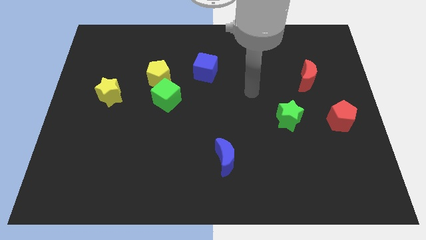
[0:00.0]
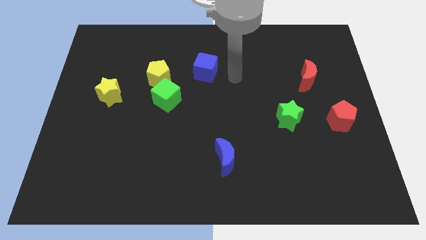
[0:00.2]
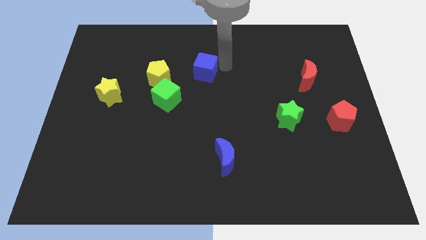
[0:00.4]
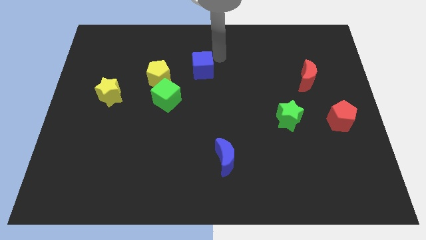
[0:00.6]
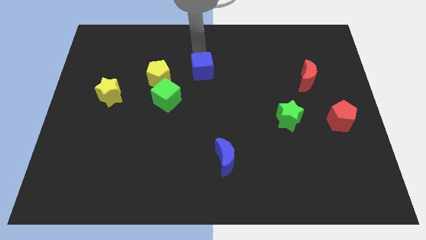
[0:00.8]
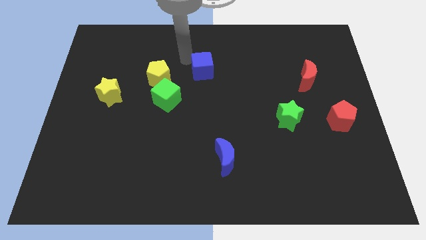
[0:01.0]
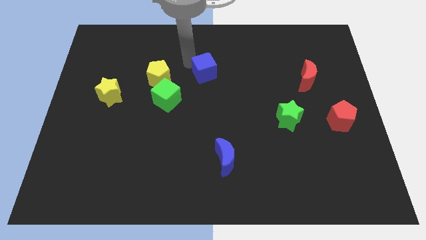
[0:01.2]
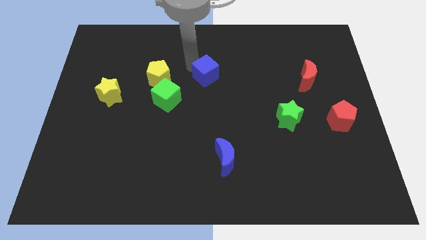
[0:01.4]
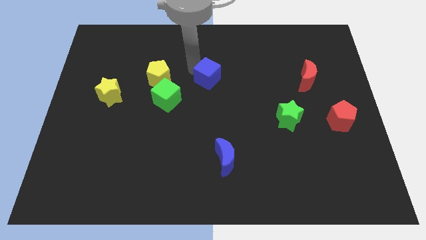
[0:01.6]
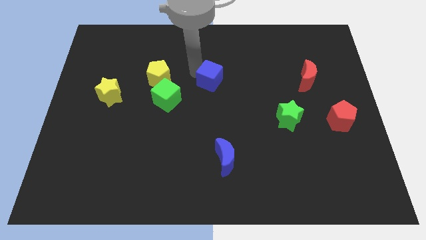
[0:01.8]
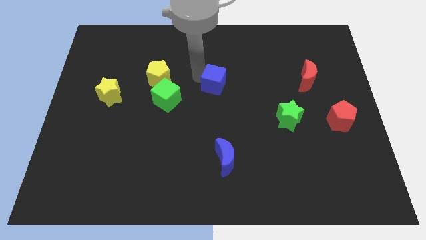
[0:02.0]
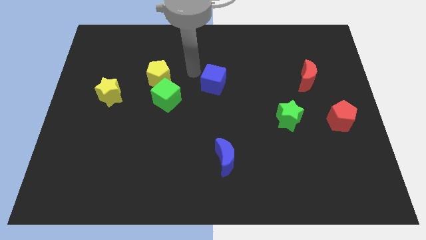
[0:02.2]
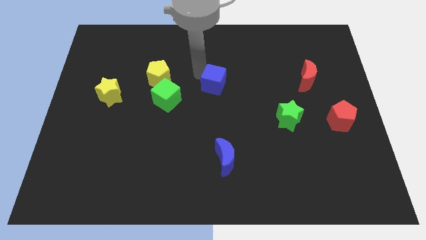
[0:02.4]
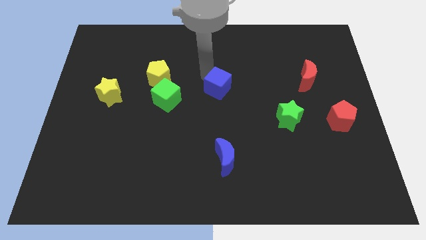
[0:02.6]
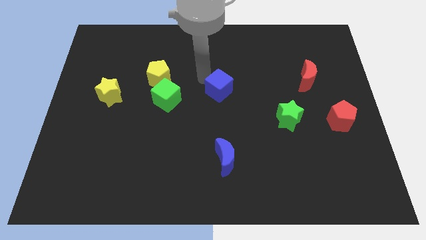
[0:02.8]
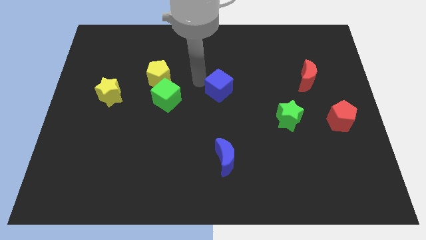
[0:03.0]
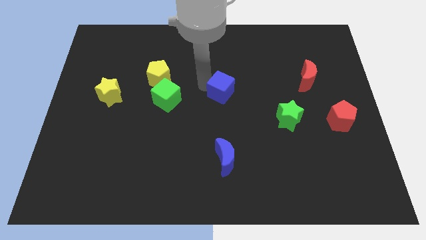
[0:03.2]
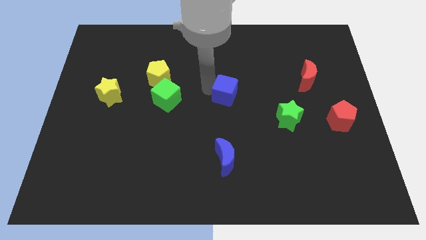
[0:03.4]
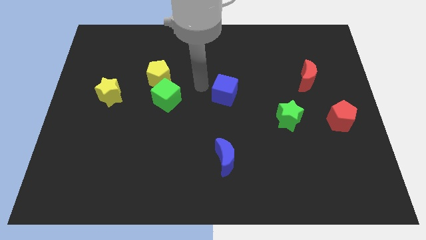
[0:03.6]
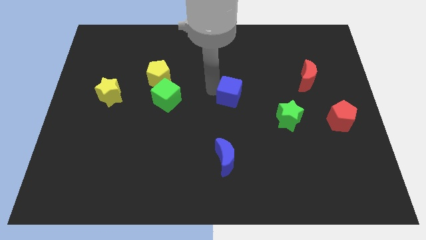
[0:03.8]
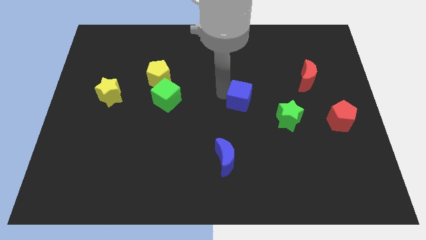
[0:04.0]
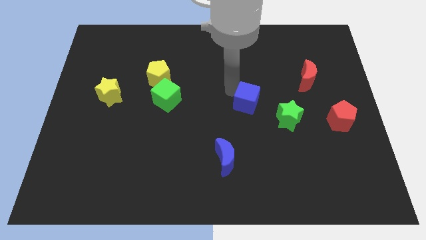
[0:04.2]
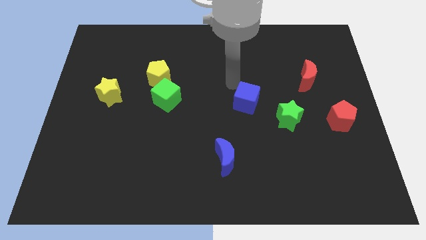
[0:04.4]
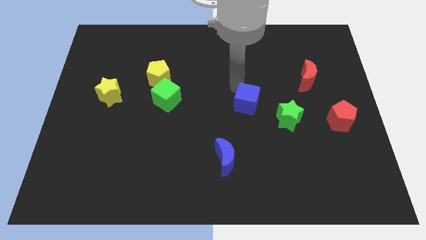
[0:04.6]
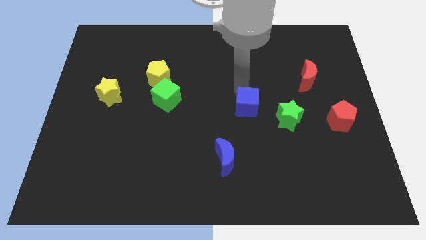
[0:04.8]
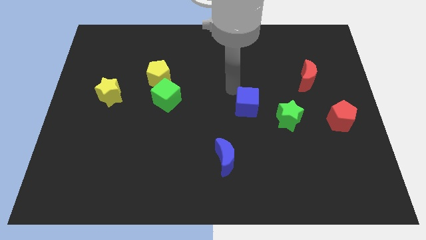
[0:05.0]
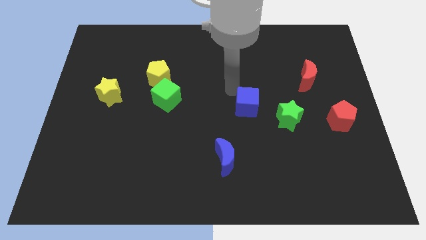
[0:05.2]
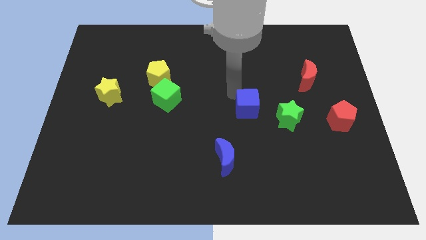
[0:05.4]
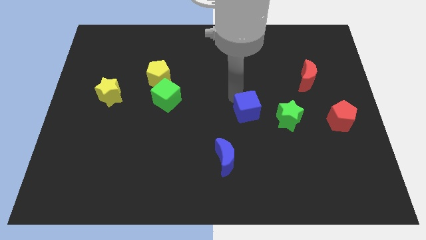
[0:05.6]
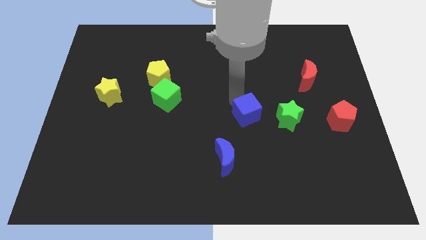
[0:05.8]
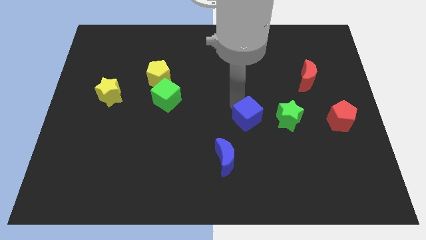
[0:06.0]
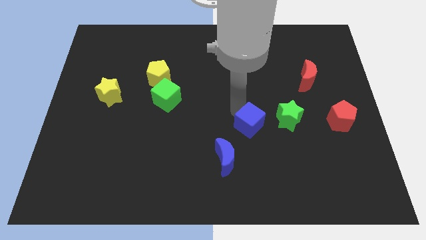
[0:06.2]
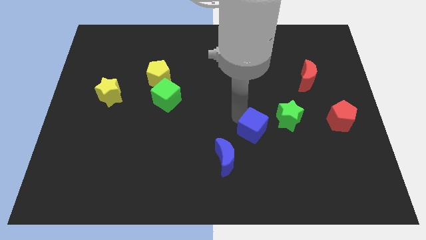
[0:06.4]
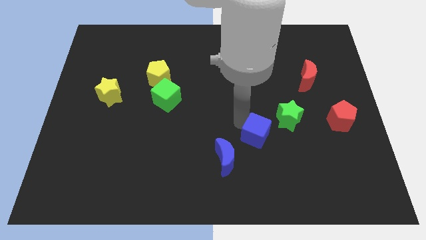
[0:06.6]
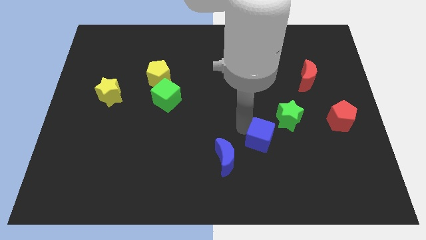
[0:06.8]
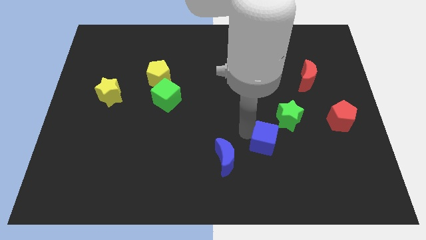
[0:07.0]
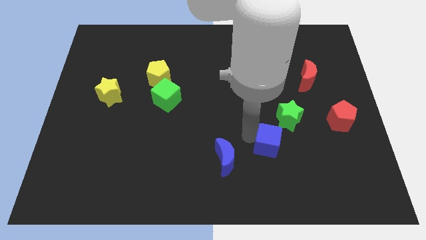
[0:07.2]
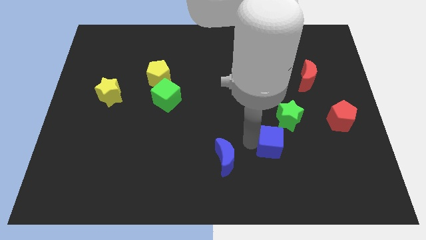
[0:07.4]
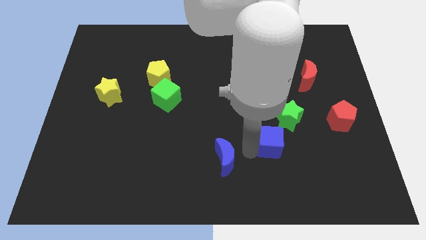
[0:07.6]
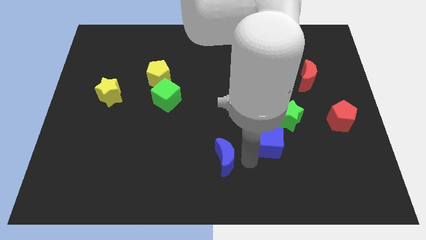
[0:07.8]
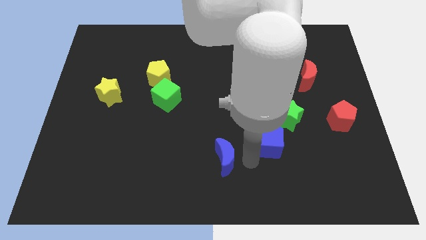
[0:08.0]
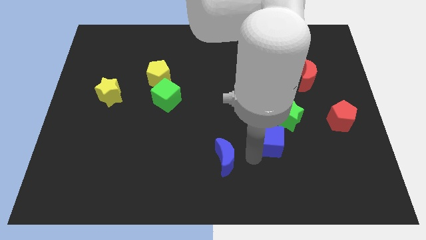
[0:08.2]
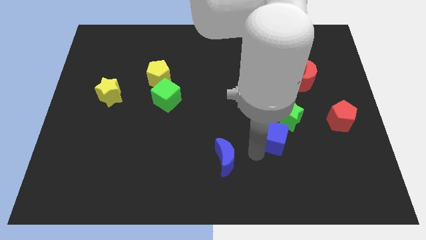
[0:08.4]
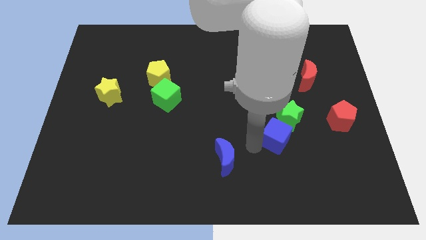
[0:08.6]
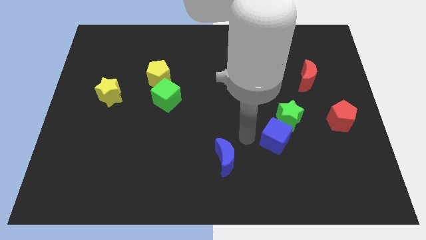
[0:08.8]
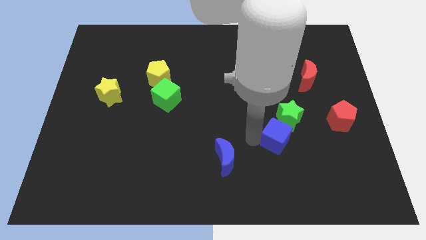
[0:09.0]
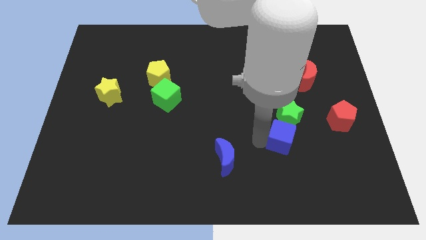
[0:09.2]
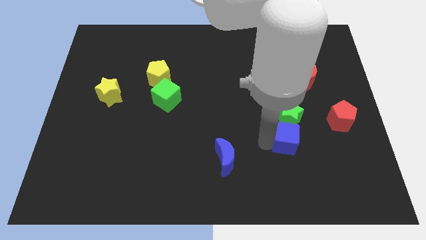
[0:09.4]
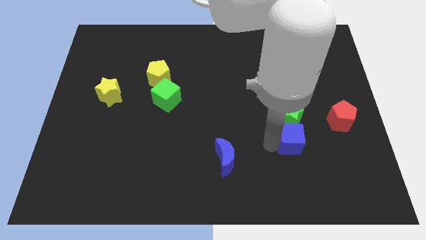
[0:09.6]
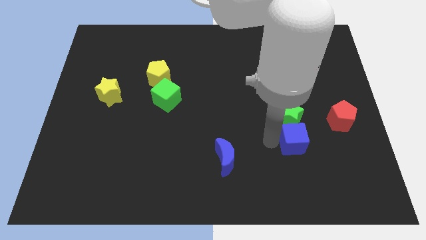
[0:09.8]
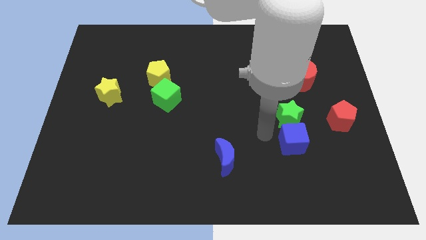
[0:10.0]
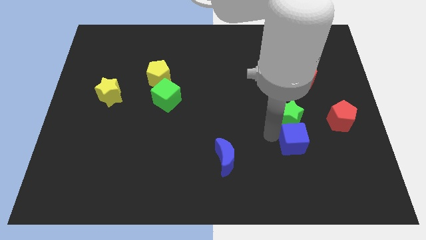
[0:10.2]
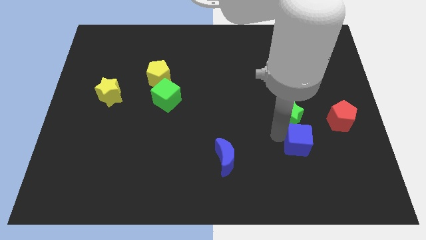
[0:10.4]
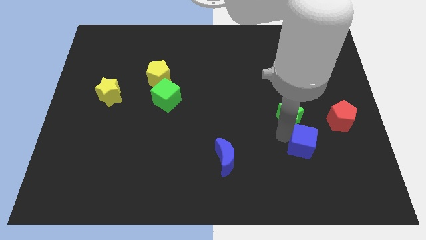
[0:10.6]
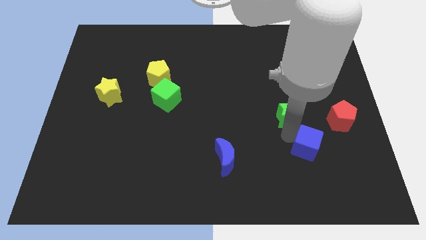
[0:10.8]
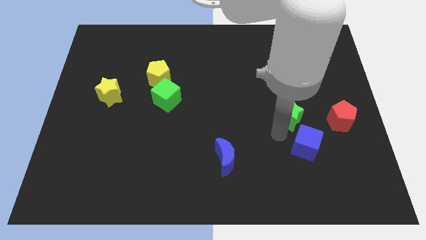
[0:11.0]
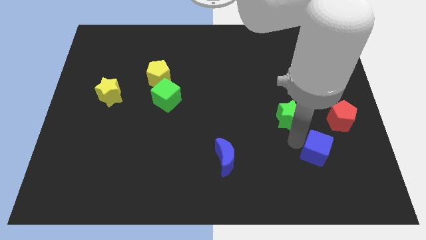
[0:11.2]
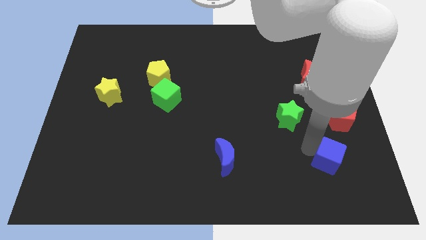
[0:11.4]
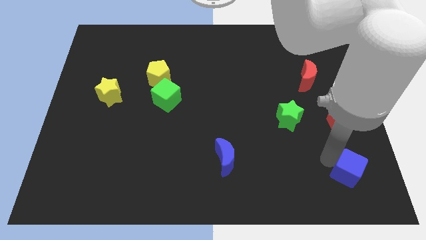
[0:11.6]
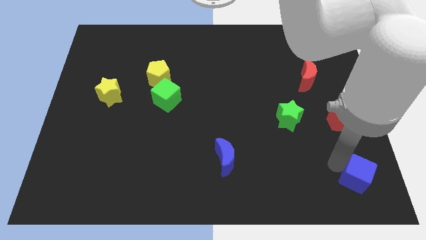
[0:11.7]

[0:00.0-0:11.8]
put the blue cube to the bottom right

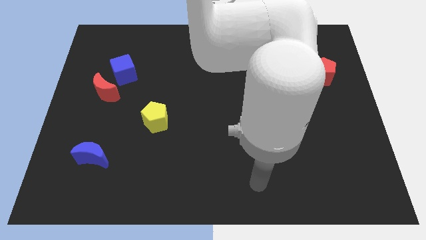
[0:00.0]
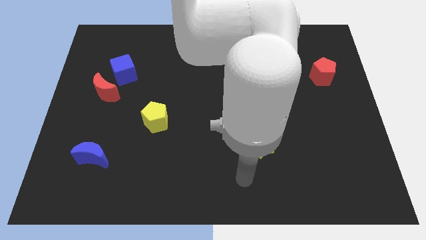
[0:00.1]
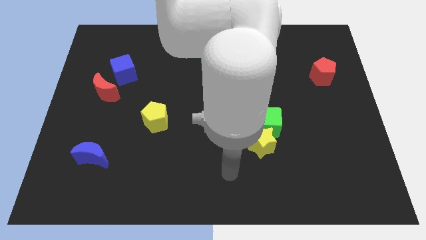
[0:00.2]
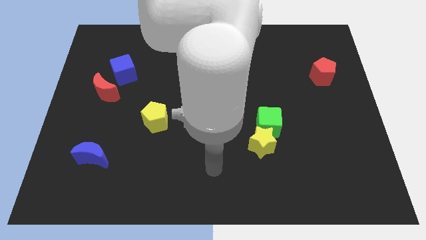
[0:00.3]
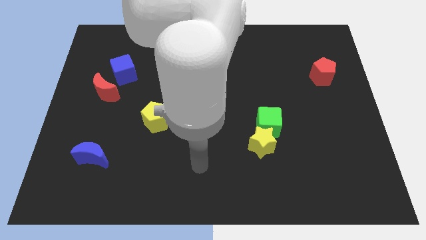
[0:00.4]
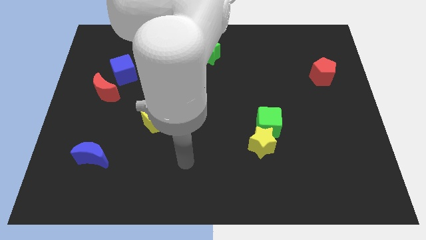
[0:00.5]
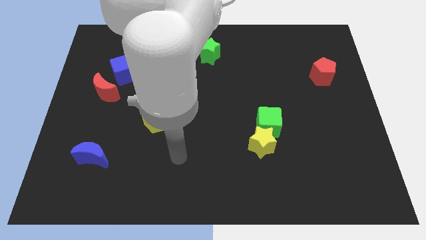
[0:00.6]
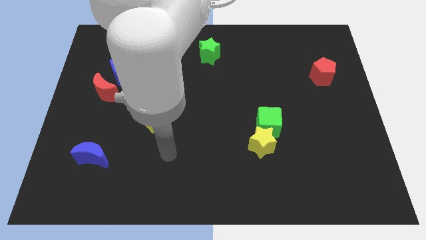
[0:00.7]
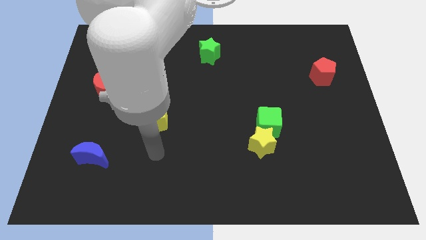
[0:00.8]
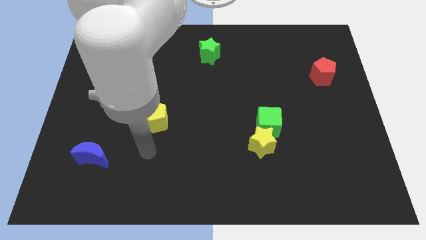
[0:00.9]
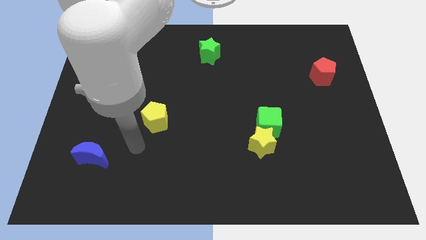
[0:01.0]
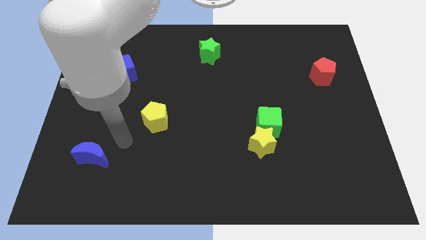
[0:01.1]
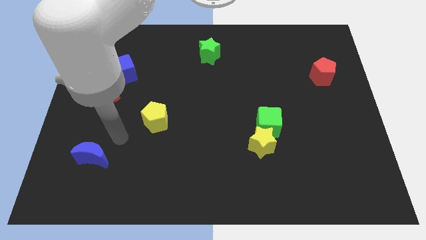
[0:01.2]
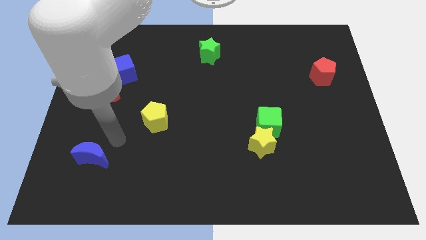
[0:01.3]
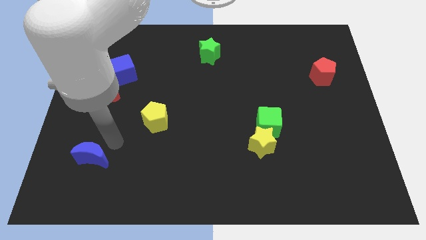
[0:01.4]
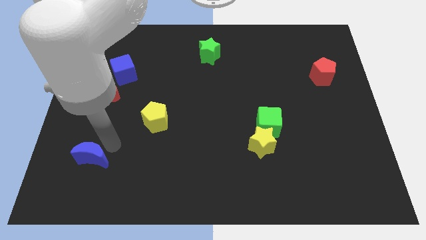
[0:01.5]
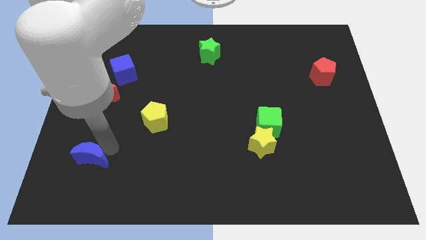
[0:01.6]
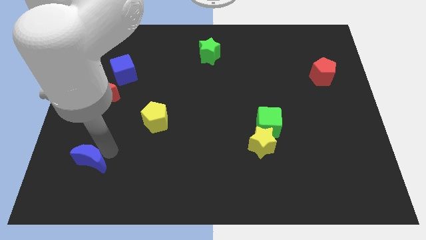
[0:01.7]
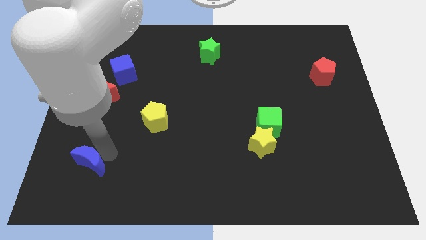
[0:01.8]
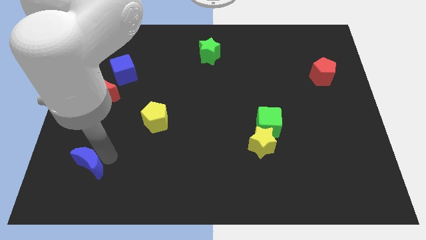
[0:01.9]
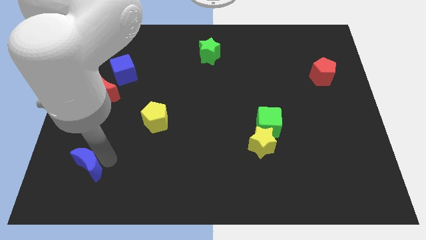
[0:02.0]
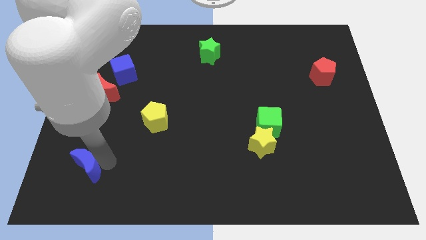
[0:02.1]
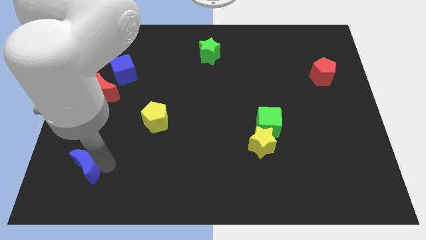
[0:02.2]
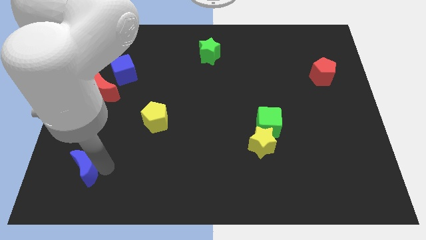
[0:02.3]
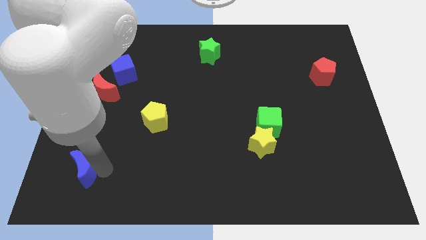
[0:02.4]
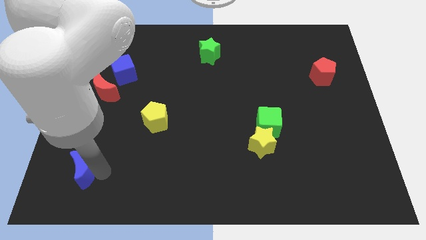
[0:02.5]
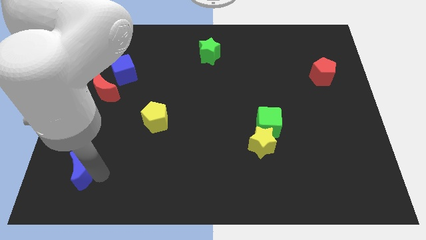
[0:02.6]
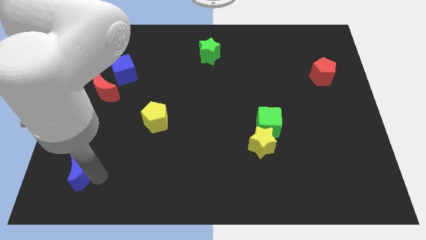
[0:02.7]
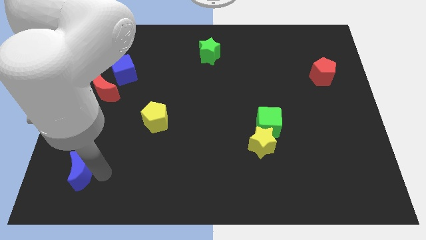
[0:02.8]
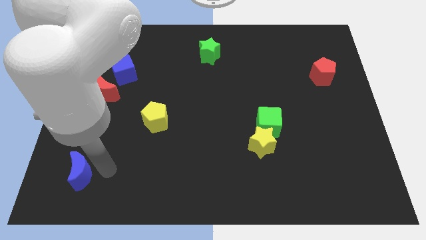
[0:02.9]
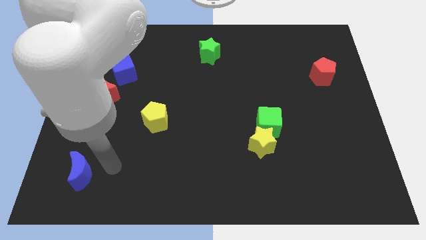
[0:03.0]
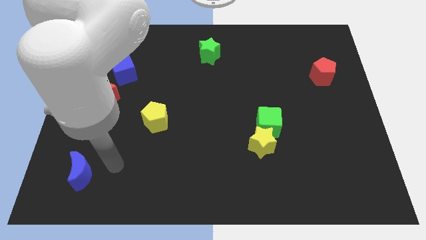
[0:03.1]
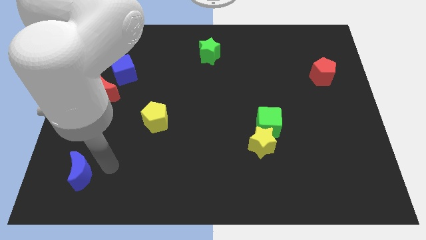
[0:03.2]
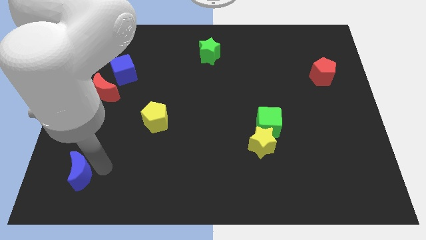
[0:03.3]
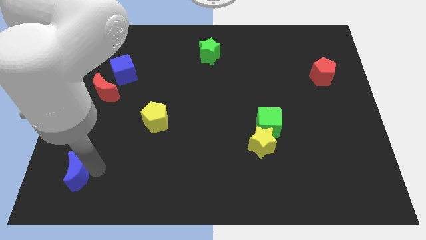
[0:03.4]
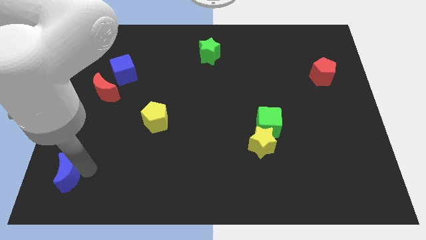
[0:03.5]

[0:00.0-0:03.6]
slide the blue moon to the bottom left
